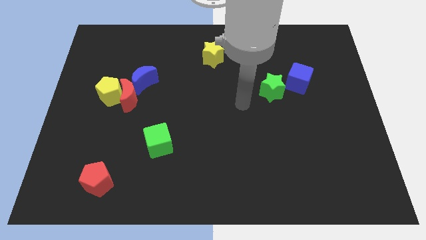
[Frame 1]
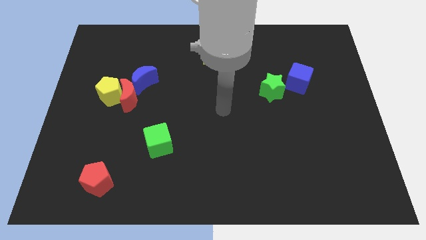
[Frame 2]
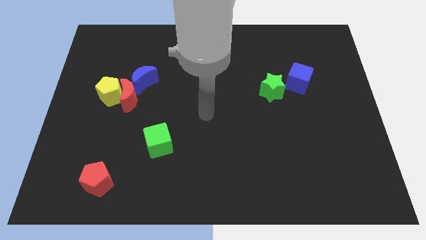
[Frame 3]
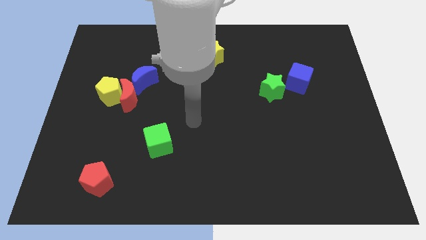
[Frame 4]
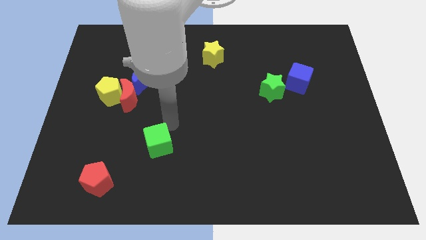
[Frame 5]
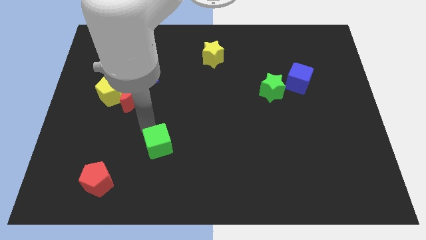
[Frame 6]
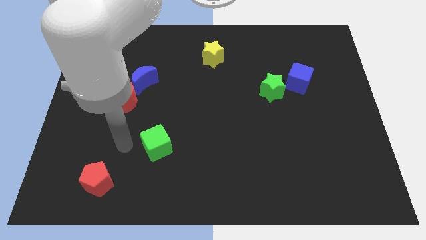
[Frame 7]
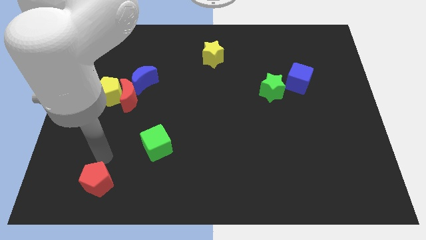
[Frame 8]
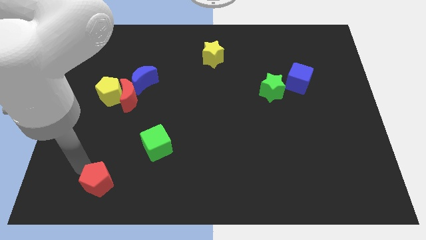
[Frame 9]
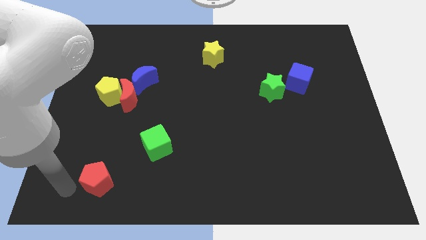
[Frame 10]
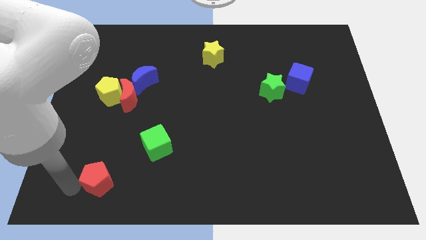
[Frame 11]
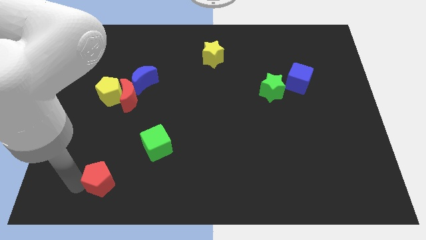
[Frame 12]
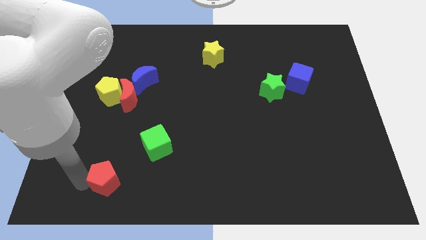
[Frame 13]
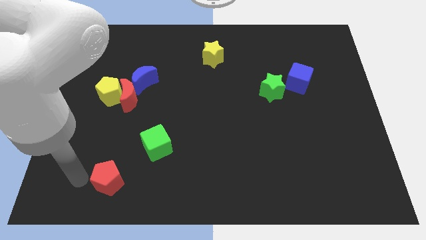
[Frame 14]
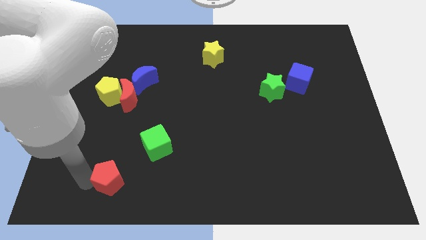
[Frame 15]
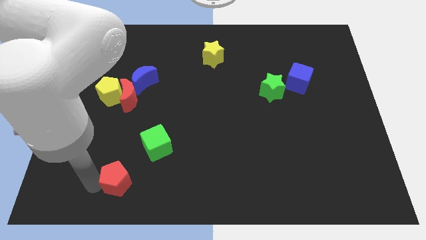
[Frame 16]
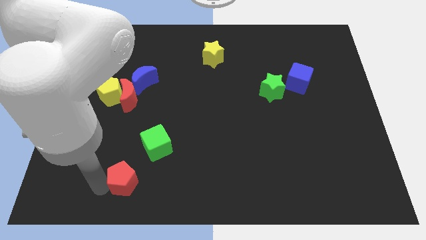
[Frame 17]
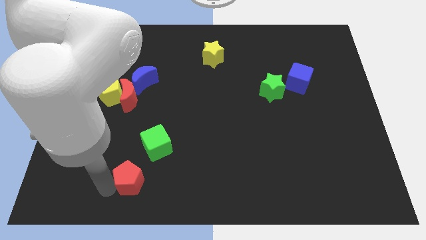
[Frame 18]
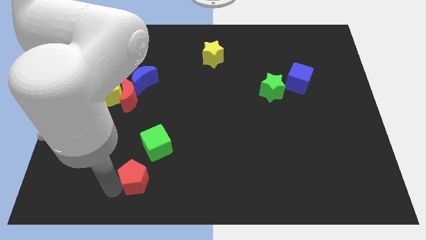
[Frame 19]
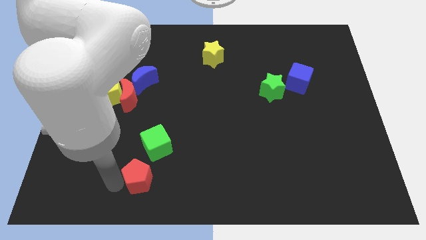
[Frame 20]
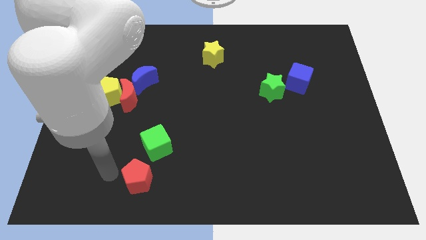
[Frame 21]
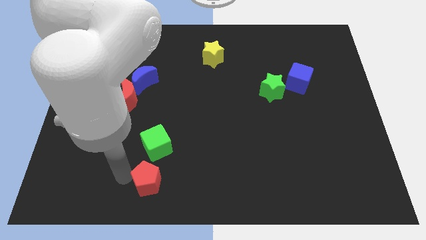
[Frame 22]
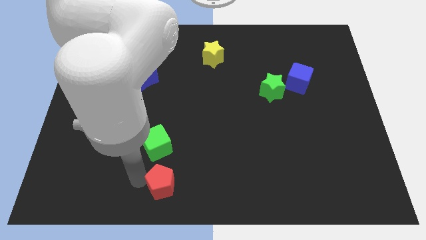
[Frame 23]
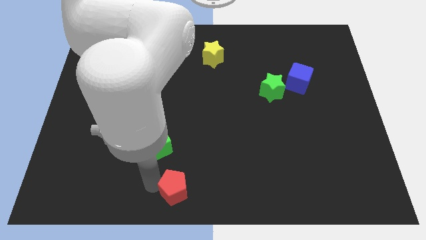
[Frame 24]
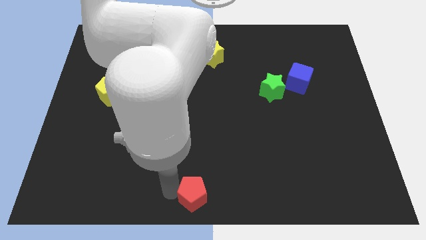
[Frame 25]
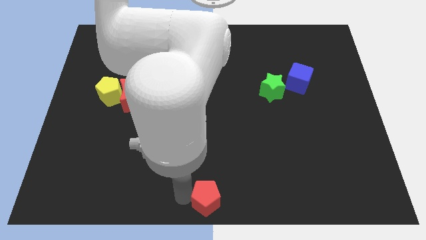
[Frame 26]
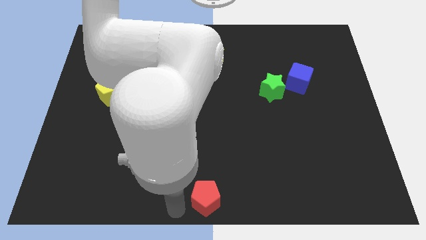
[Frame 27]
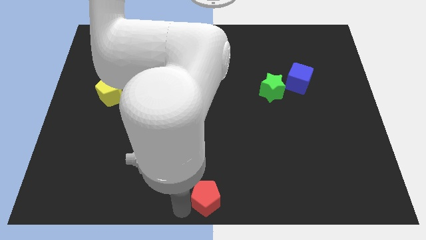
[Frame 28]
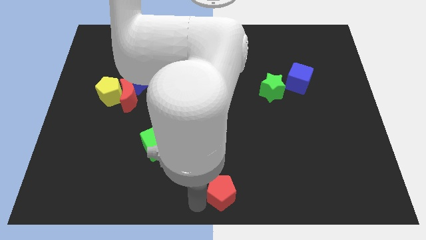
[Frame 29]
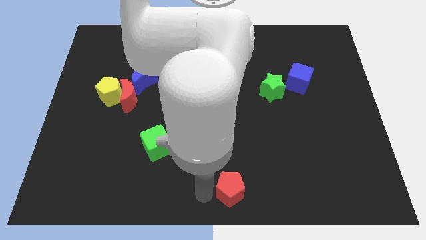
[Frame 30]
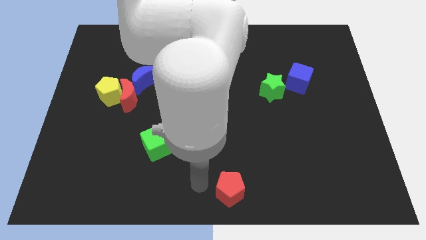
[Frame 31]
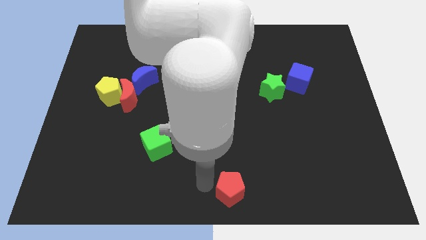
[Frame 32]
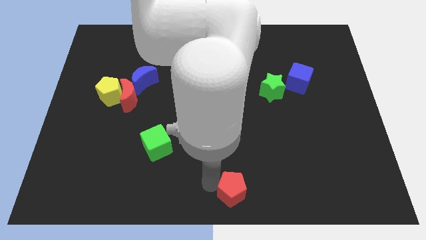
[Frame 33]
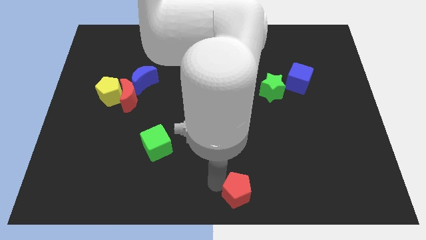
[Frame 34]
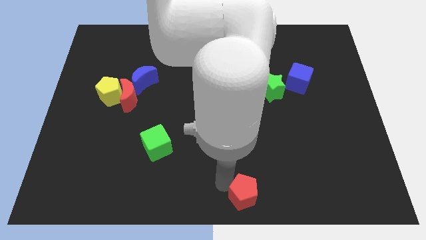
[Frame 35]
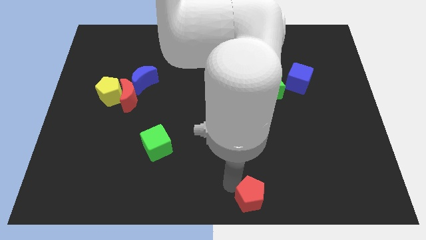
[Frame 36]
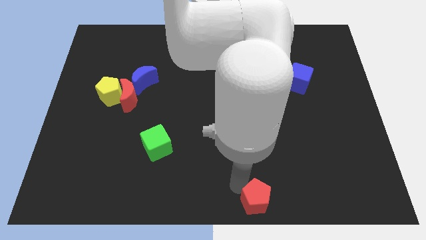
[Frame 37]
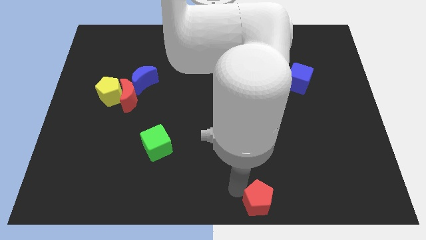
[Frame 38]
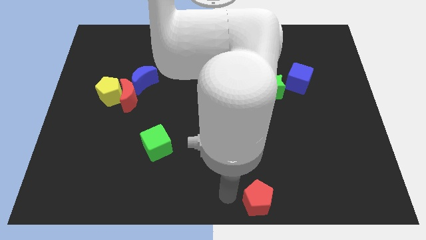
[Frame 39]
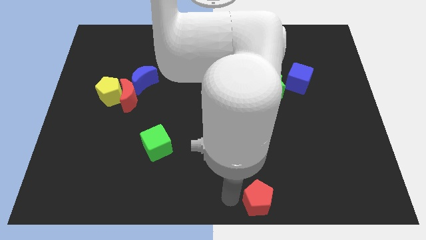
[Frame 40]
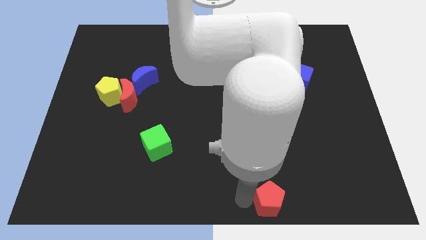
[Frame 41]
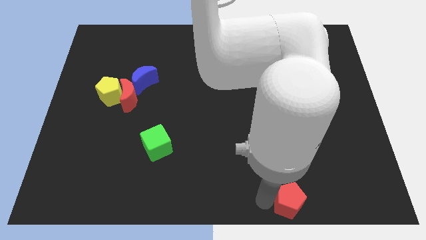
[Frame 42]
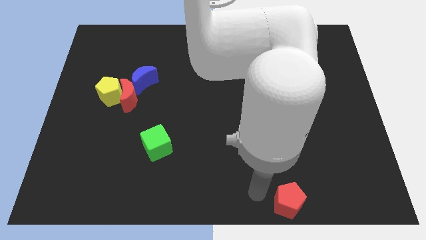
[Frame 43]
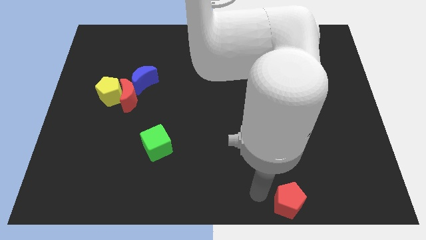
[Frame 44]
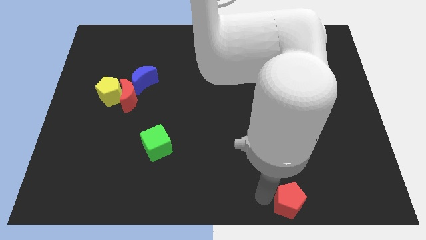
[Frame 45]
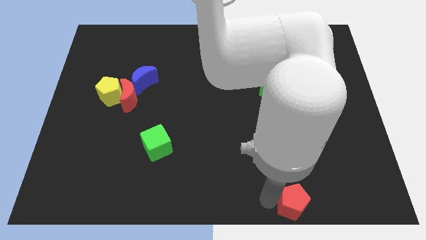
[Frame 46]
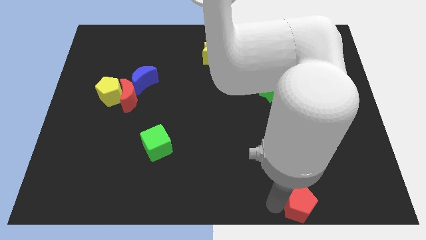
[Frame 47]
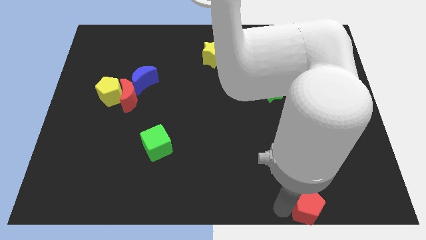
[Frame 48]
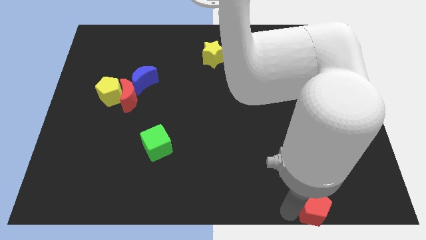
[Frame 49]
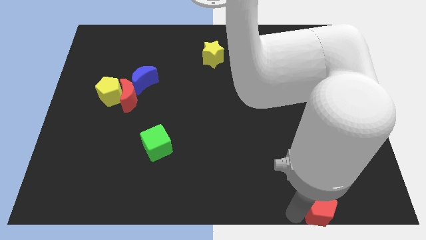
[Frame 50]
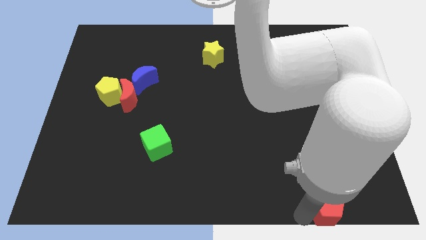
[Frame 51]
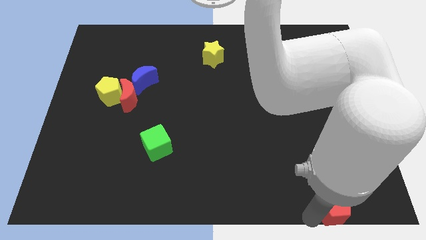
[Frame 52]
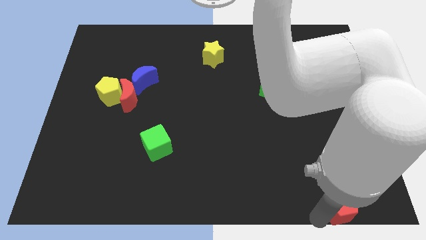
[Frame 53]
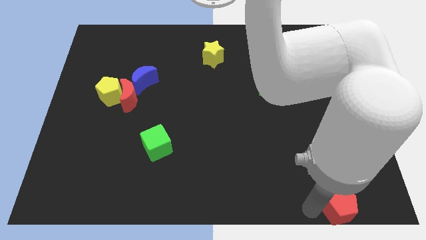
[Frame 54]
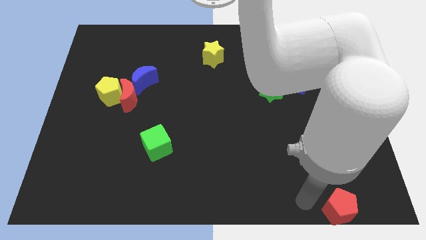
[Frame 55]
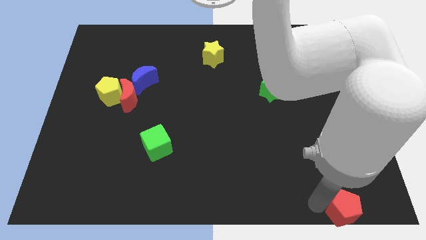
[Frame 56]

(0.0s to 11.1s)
slide the red pentagon to the bottom right

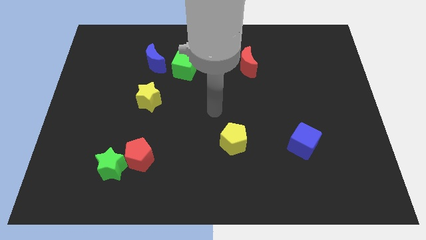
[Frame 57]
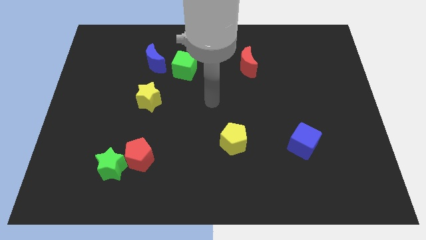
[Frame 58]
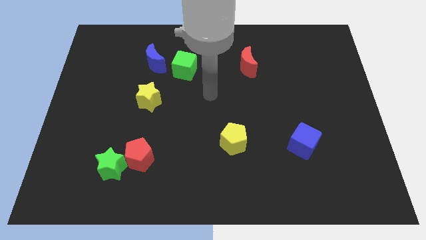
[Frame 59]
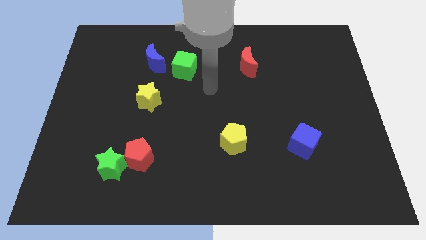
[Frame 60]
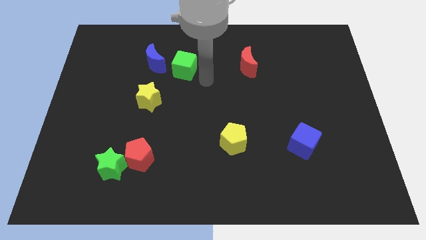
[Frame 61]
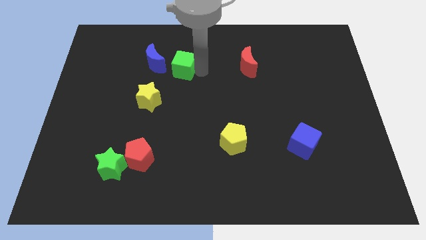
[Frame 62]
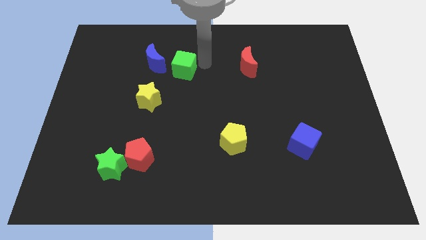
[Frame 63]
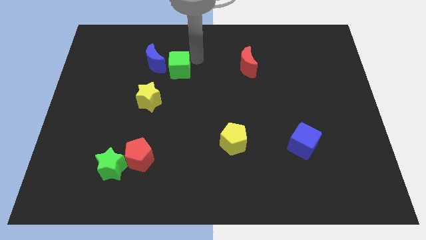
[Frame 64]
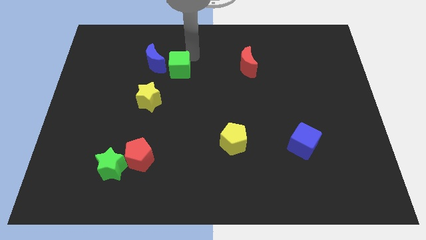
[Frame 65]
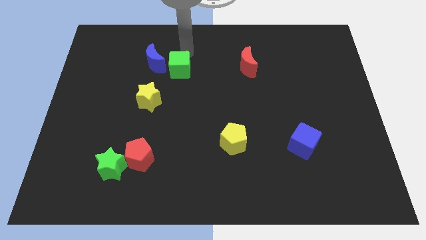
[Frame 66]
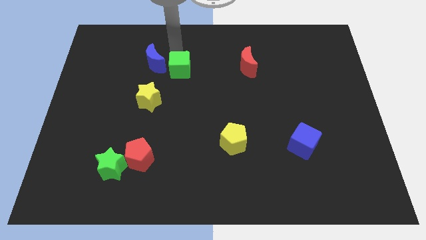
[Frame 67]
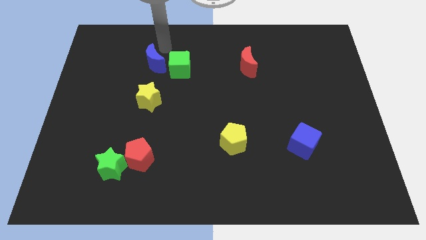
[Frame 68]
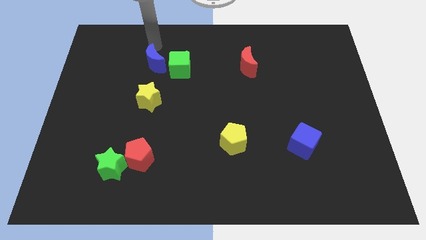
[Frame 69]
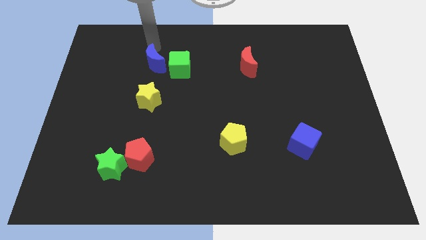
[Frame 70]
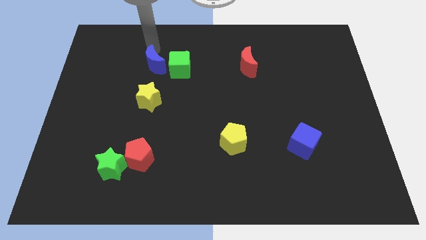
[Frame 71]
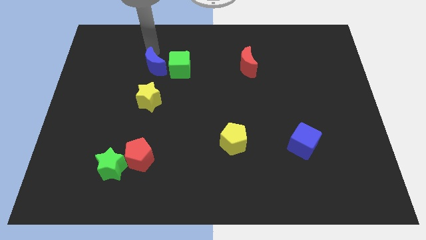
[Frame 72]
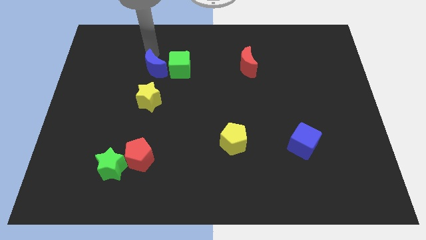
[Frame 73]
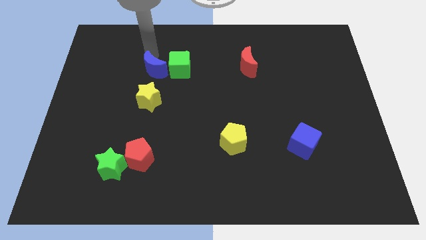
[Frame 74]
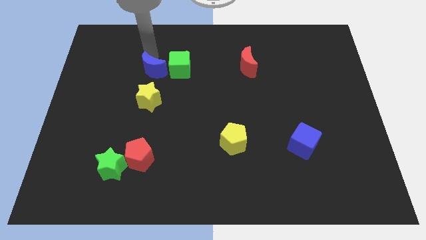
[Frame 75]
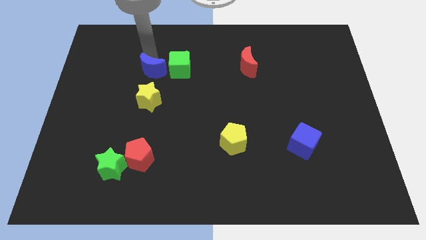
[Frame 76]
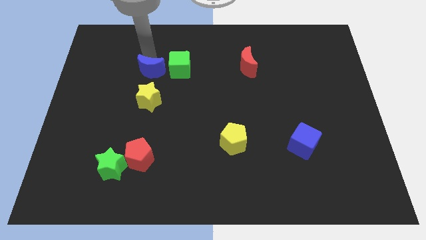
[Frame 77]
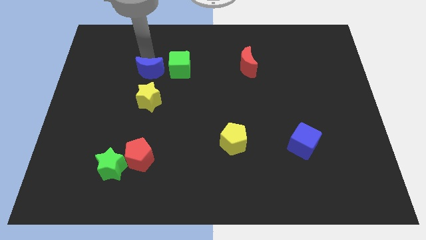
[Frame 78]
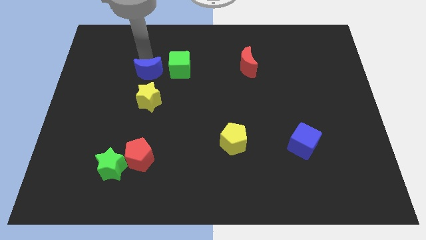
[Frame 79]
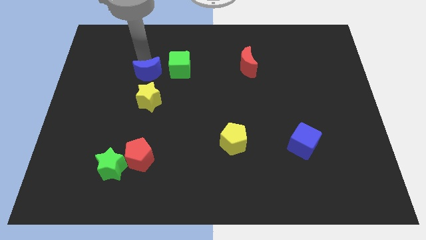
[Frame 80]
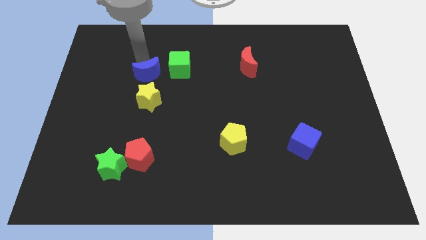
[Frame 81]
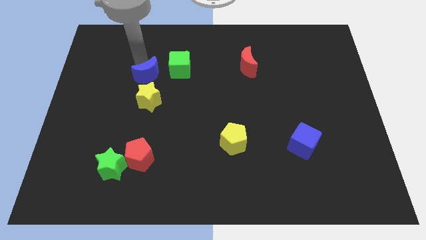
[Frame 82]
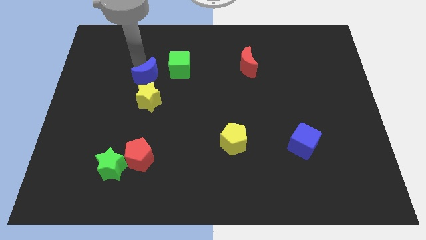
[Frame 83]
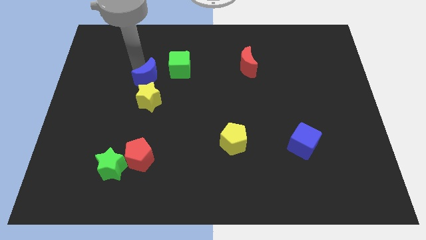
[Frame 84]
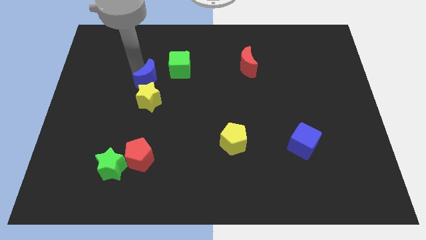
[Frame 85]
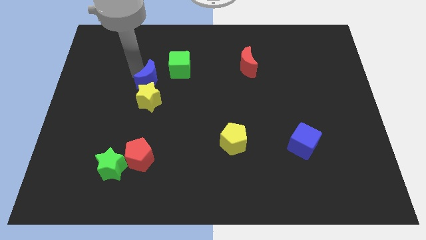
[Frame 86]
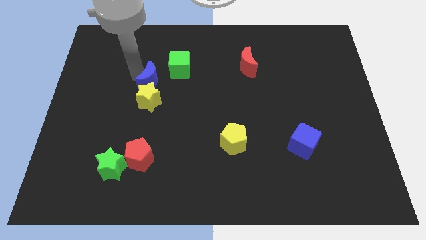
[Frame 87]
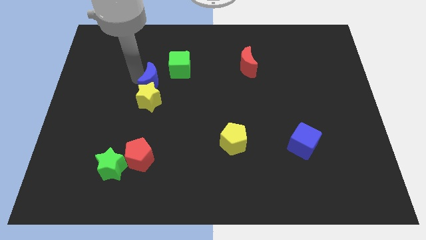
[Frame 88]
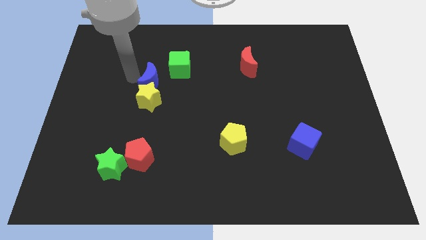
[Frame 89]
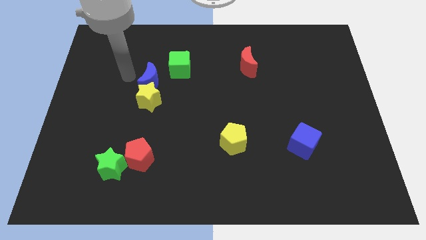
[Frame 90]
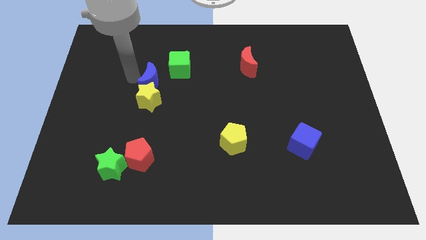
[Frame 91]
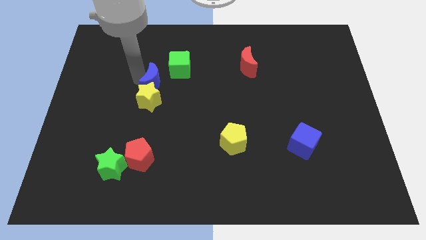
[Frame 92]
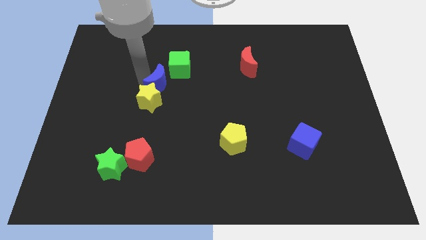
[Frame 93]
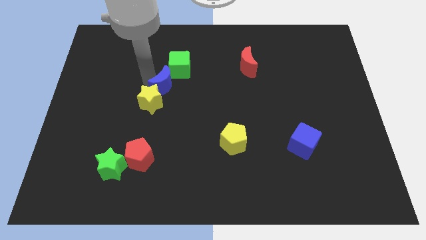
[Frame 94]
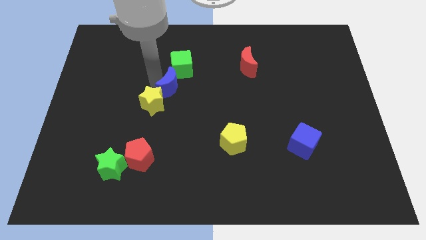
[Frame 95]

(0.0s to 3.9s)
push the blue moon to the center
